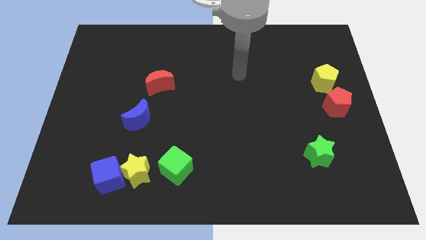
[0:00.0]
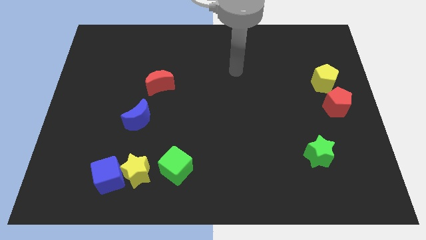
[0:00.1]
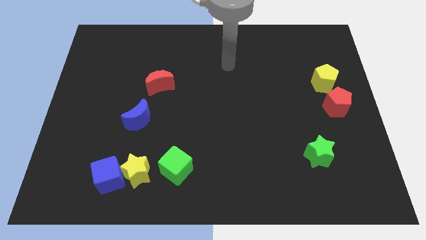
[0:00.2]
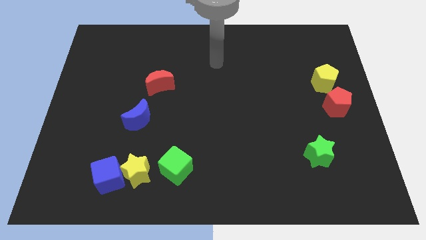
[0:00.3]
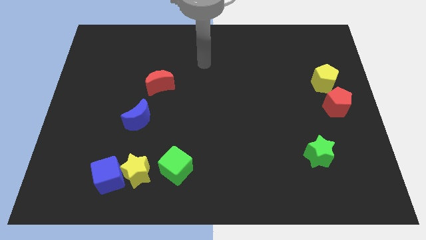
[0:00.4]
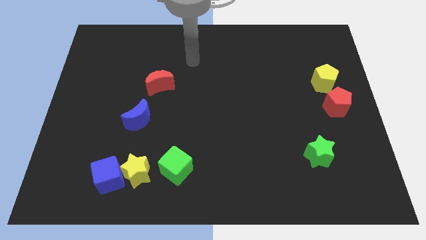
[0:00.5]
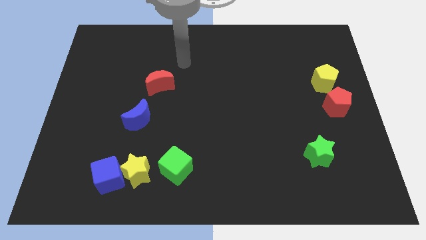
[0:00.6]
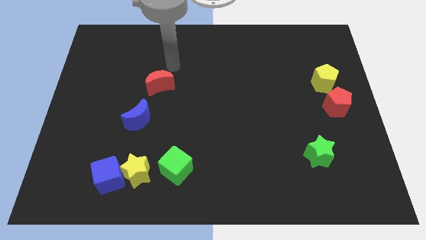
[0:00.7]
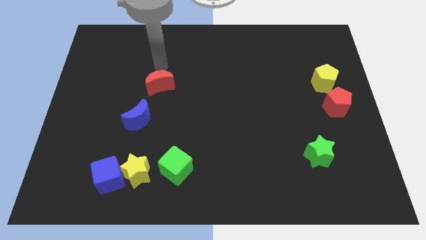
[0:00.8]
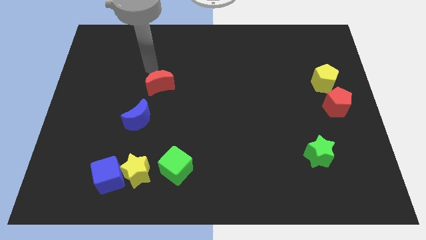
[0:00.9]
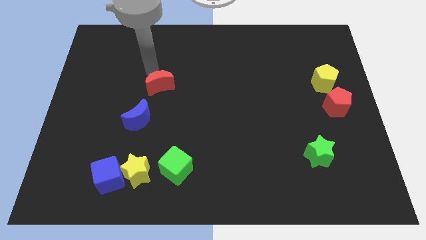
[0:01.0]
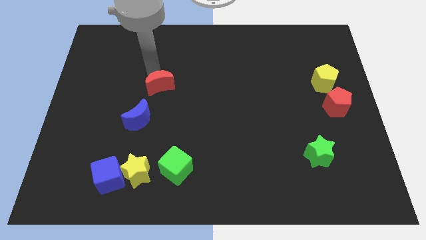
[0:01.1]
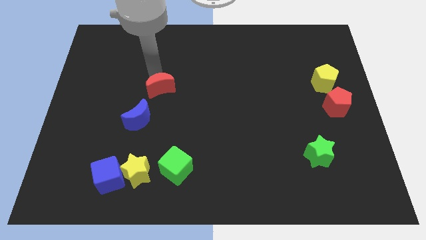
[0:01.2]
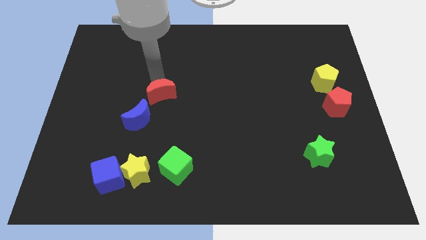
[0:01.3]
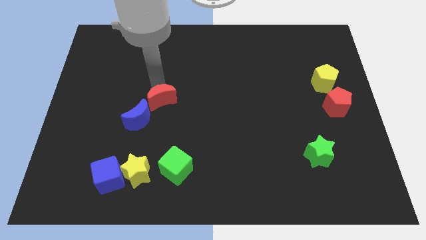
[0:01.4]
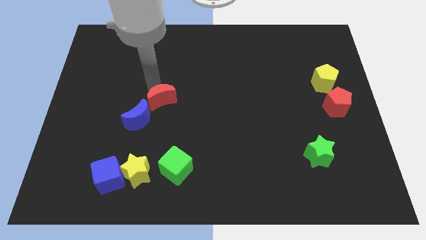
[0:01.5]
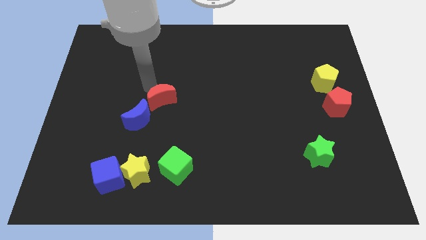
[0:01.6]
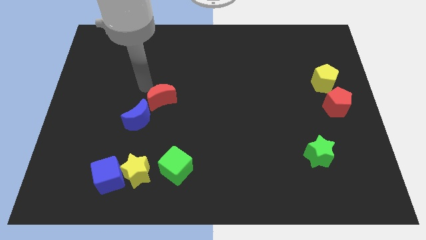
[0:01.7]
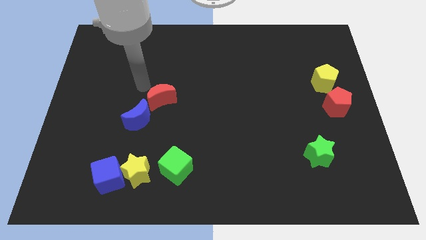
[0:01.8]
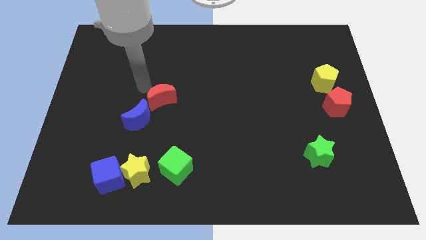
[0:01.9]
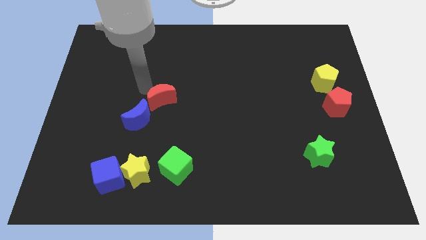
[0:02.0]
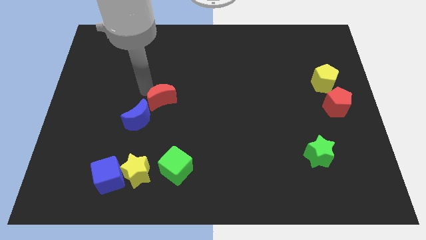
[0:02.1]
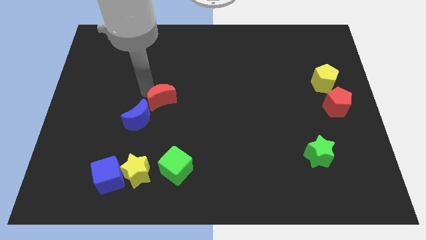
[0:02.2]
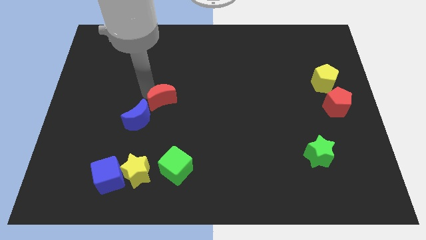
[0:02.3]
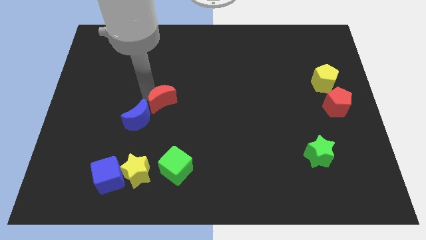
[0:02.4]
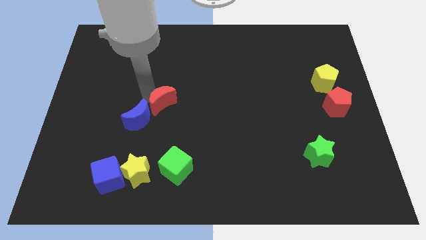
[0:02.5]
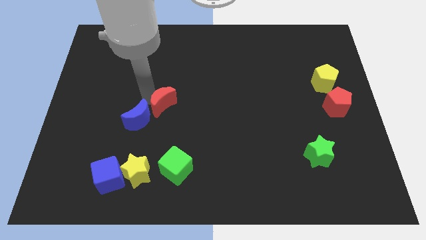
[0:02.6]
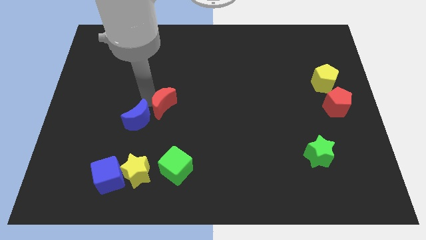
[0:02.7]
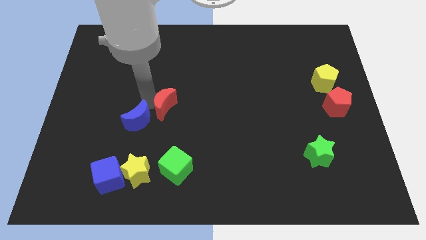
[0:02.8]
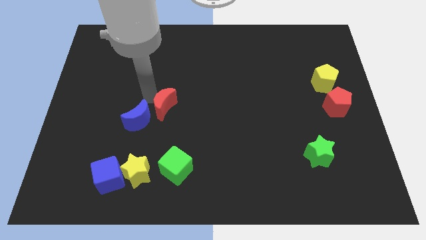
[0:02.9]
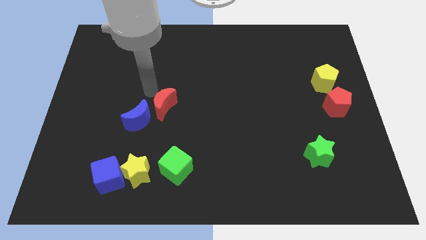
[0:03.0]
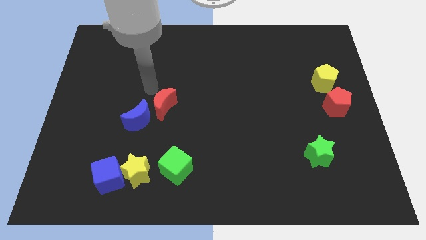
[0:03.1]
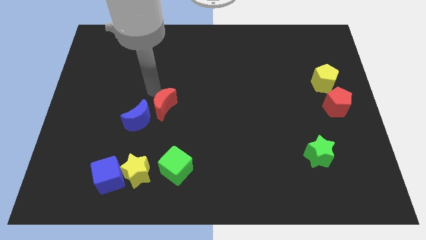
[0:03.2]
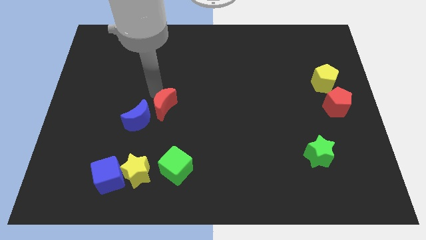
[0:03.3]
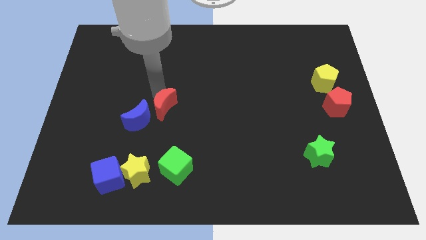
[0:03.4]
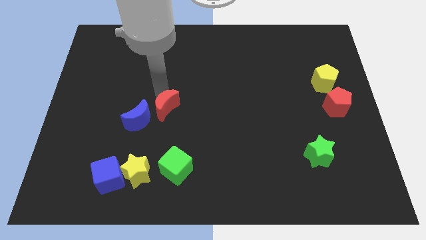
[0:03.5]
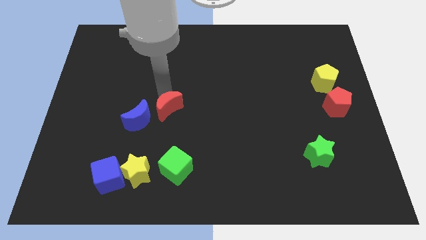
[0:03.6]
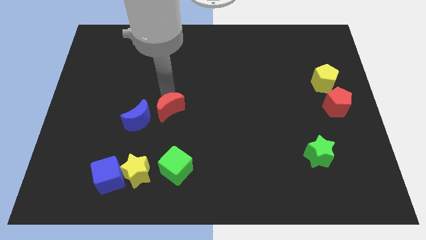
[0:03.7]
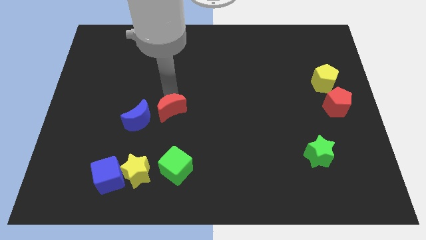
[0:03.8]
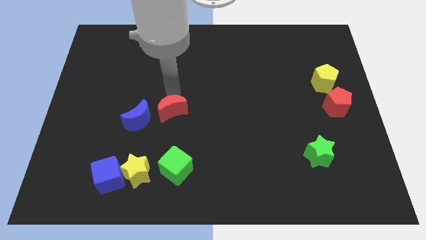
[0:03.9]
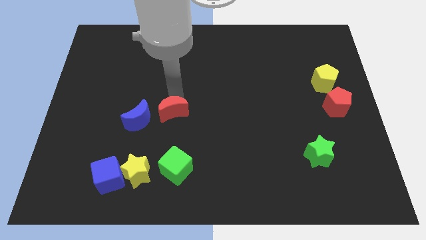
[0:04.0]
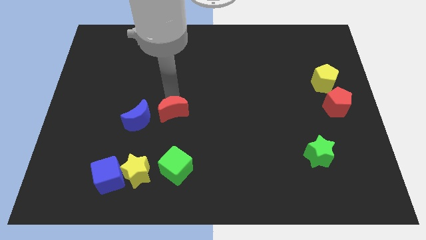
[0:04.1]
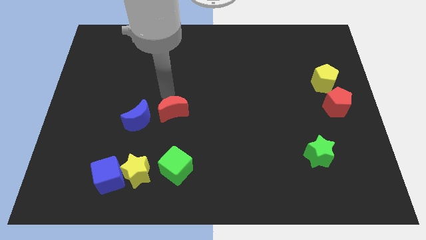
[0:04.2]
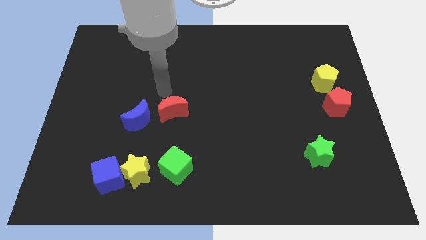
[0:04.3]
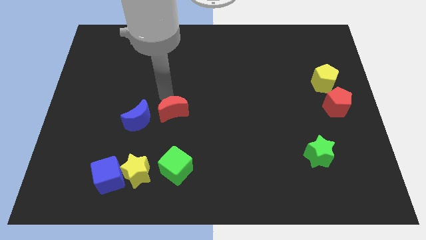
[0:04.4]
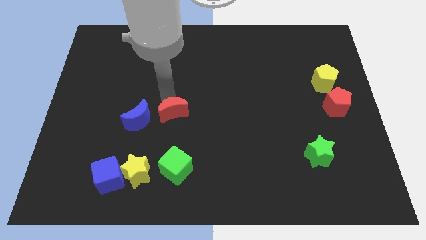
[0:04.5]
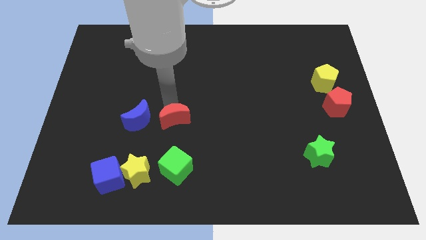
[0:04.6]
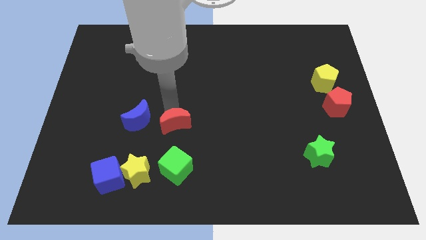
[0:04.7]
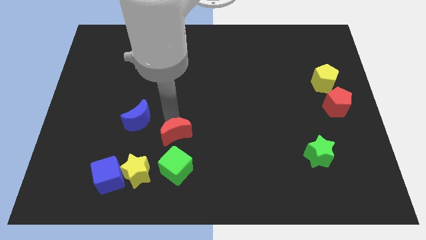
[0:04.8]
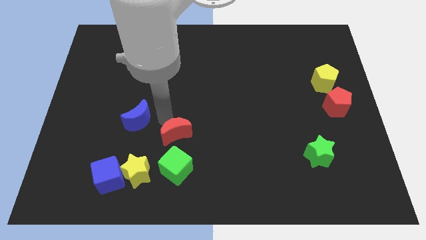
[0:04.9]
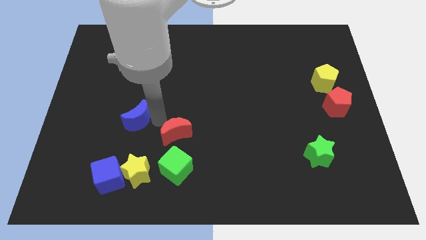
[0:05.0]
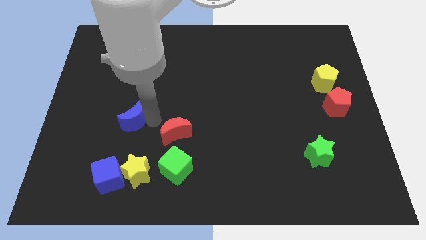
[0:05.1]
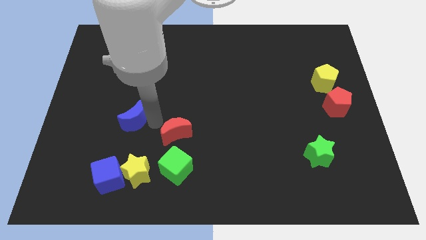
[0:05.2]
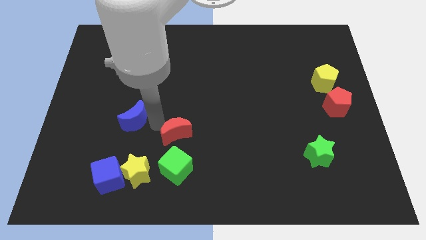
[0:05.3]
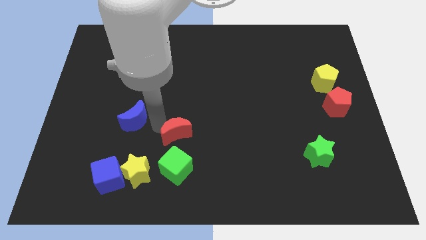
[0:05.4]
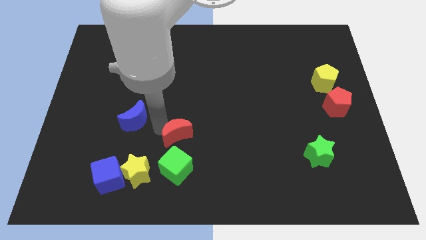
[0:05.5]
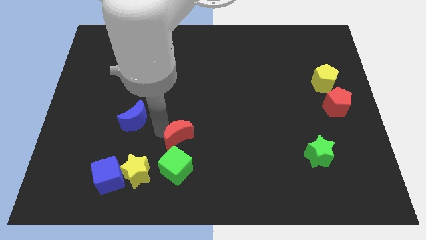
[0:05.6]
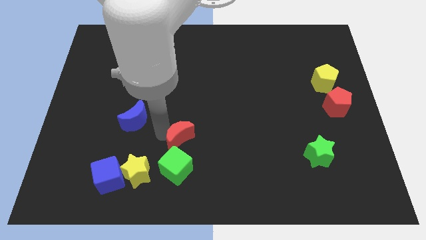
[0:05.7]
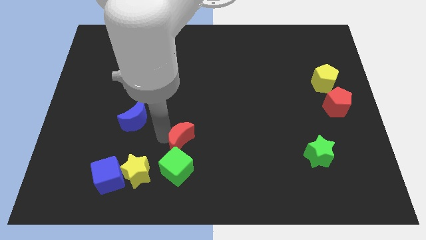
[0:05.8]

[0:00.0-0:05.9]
move the red moon to the top right of the green cube
